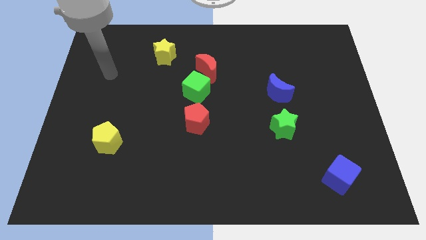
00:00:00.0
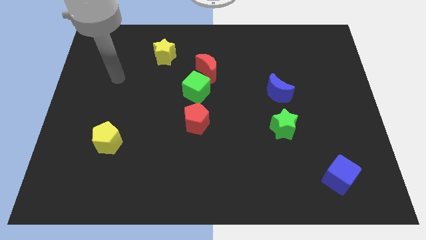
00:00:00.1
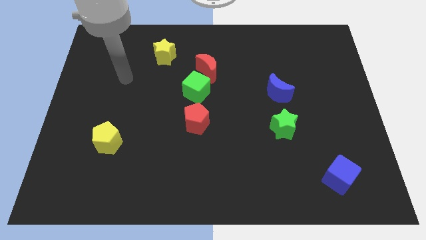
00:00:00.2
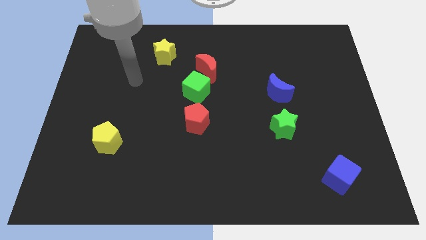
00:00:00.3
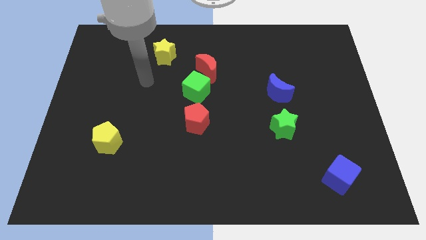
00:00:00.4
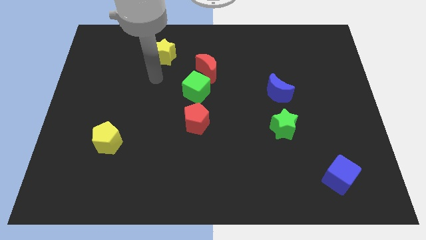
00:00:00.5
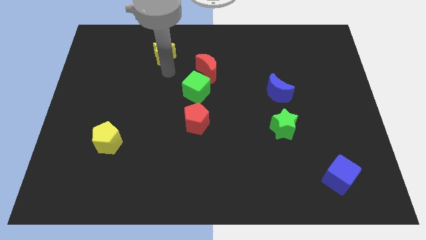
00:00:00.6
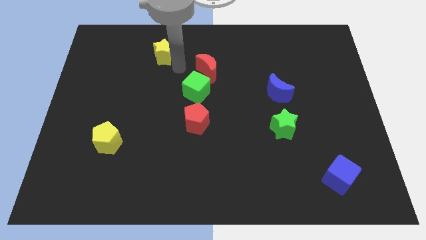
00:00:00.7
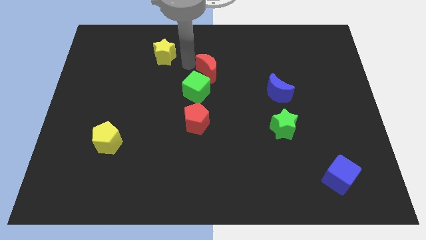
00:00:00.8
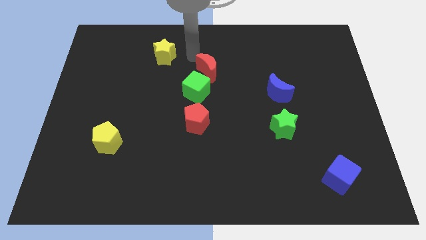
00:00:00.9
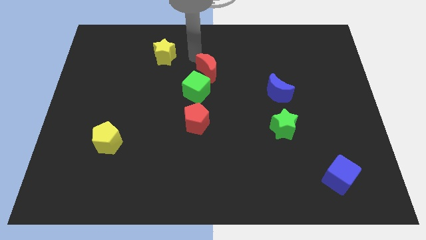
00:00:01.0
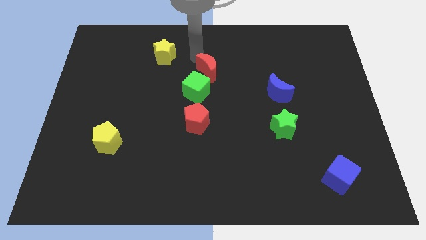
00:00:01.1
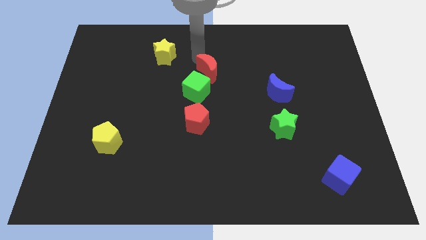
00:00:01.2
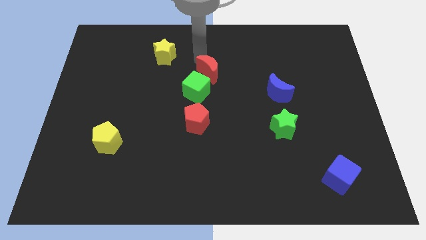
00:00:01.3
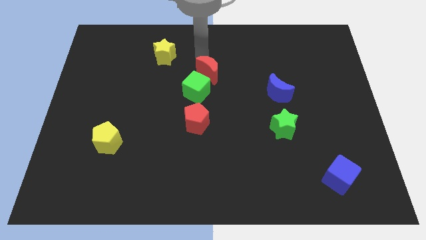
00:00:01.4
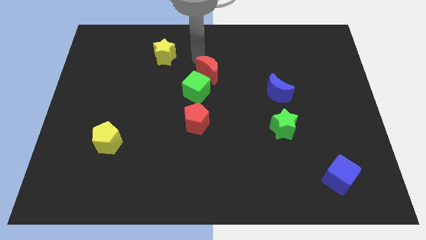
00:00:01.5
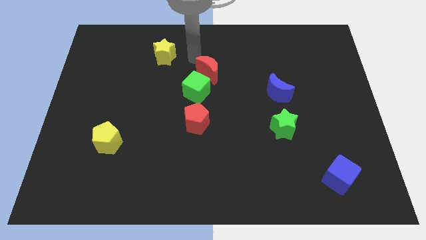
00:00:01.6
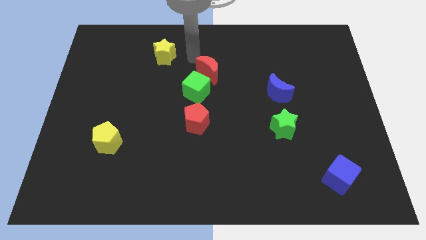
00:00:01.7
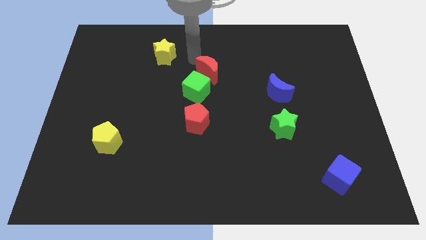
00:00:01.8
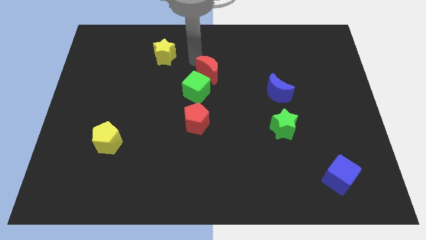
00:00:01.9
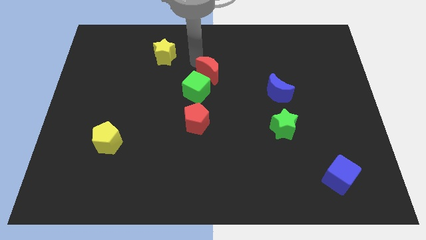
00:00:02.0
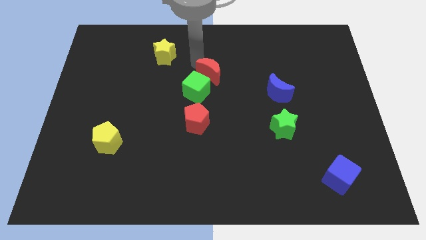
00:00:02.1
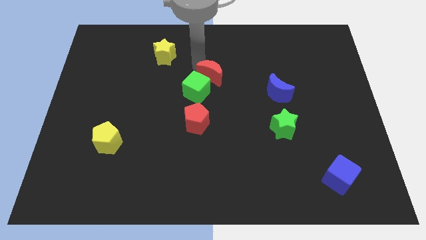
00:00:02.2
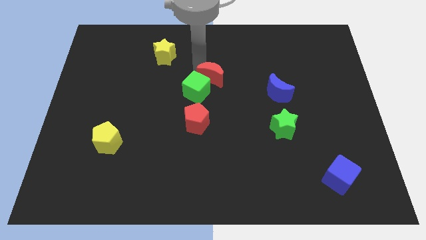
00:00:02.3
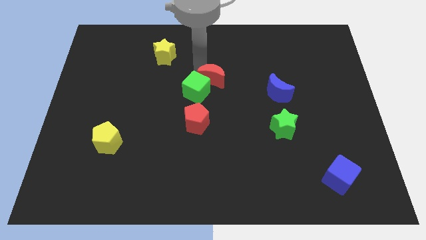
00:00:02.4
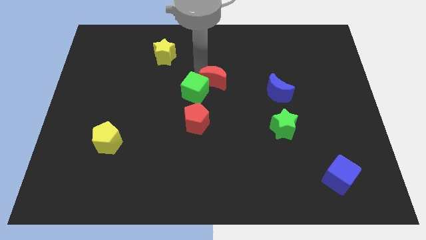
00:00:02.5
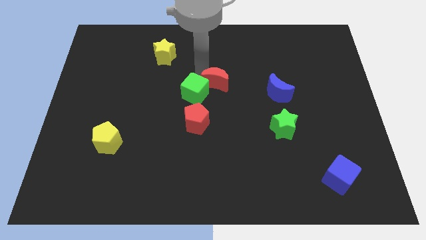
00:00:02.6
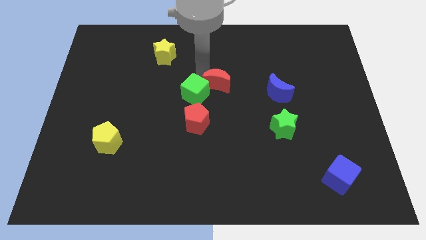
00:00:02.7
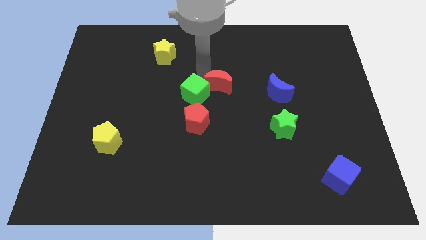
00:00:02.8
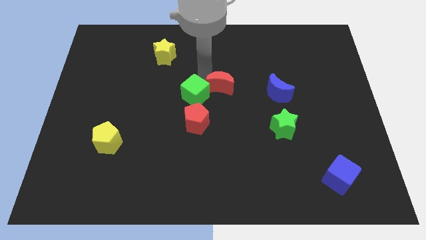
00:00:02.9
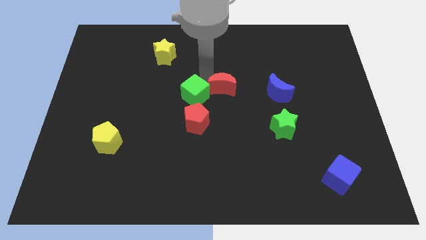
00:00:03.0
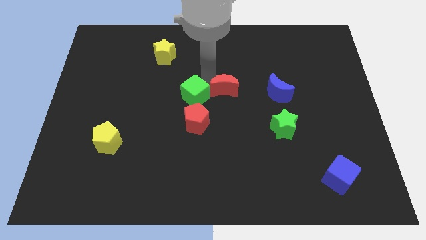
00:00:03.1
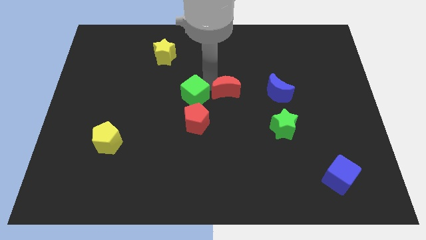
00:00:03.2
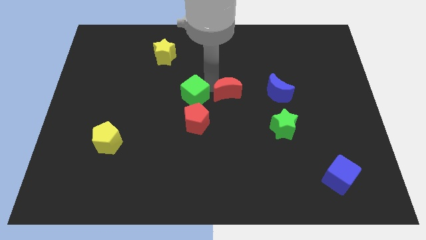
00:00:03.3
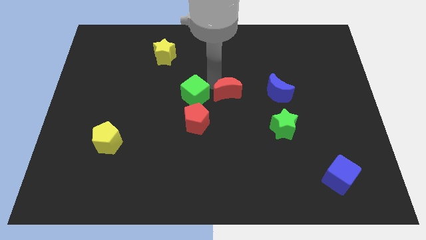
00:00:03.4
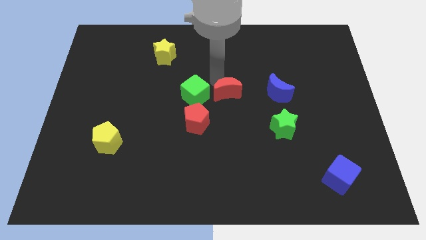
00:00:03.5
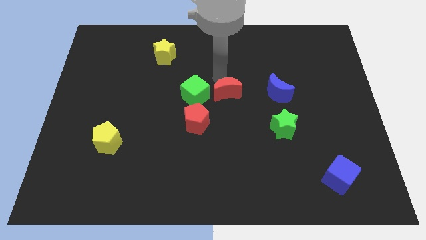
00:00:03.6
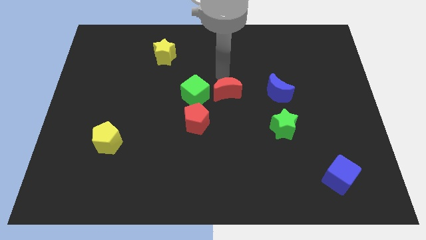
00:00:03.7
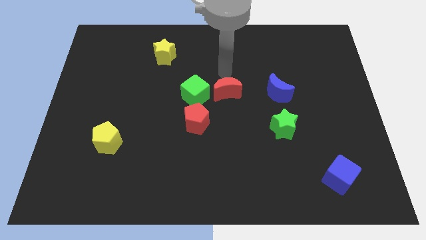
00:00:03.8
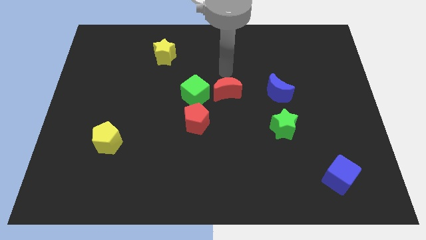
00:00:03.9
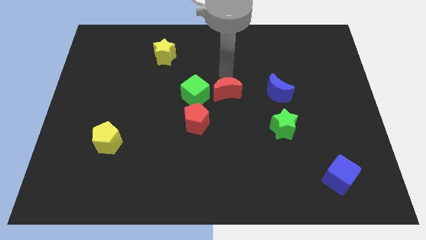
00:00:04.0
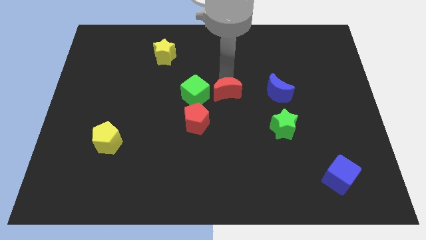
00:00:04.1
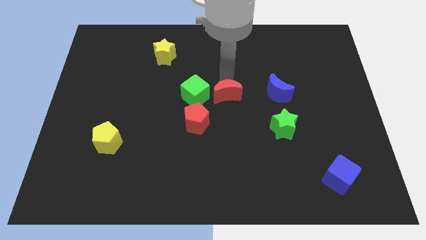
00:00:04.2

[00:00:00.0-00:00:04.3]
slide the red moon a bit down

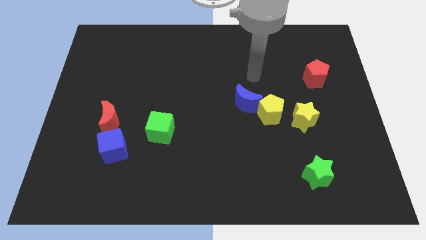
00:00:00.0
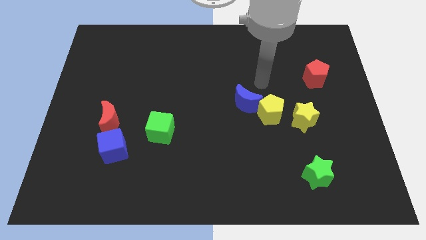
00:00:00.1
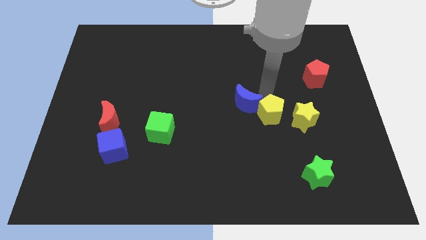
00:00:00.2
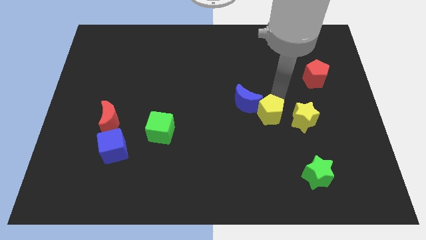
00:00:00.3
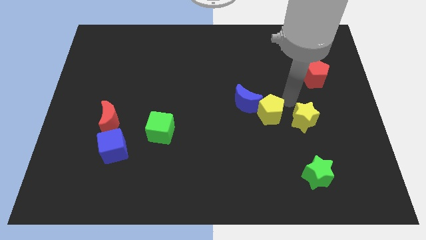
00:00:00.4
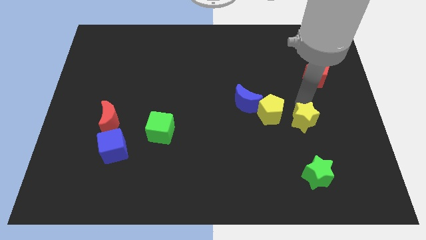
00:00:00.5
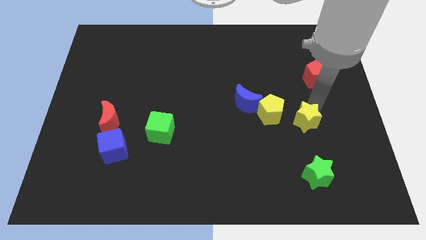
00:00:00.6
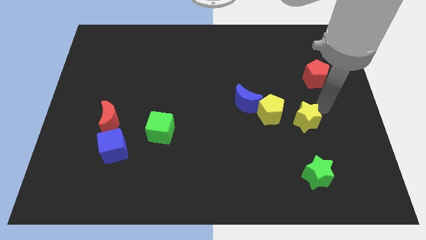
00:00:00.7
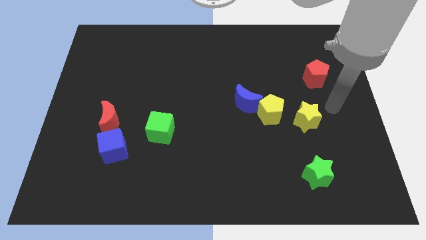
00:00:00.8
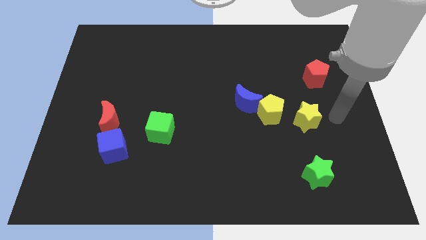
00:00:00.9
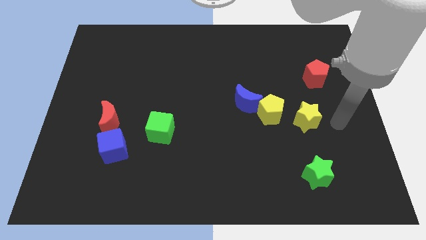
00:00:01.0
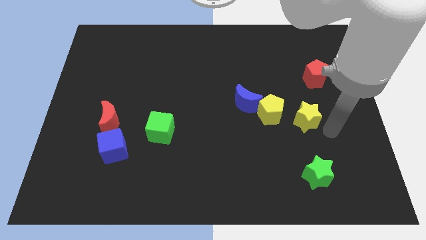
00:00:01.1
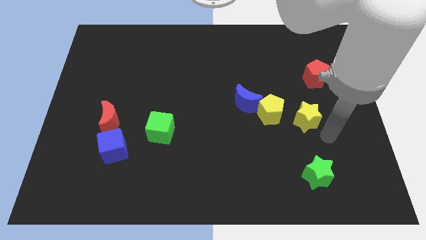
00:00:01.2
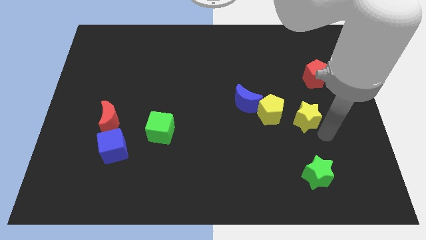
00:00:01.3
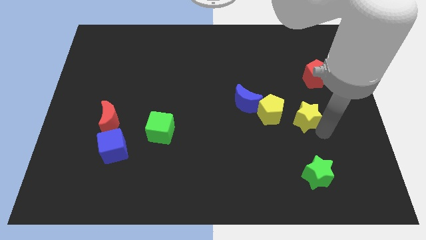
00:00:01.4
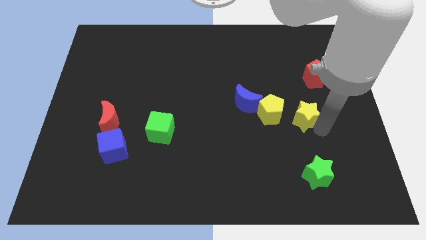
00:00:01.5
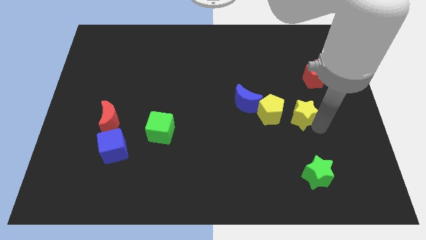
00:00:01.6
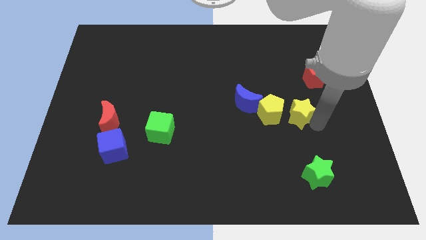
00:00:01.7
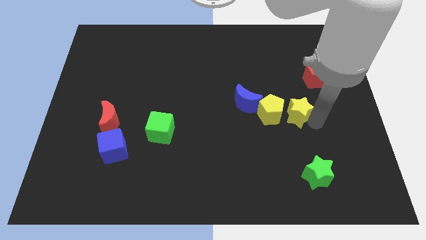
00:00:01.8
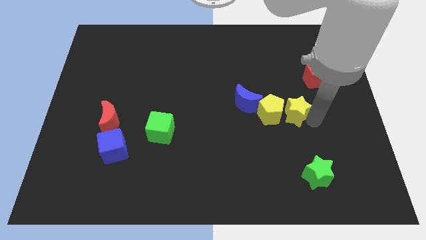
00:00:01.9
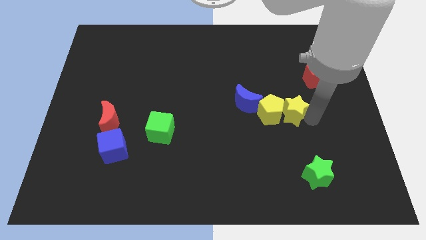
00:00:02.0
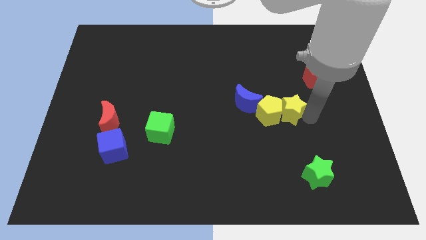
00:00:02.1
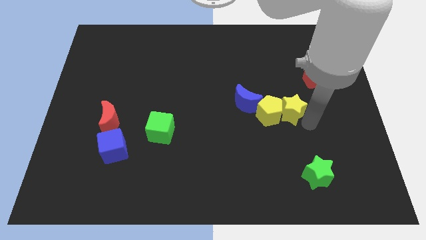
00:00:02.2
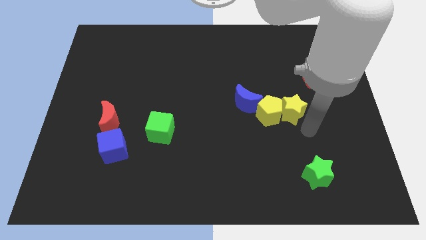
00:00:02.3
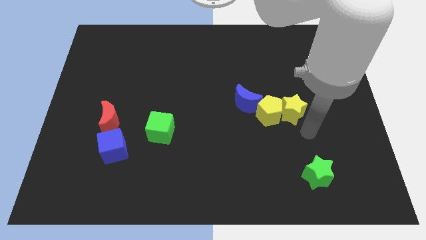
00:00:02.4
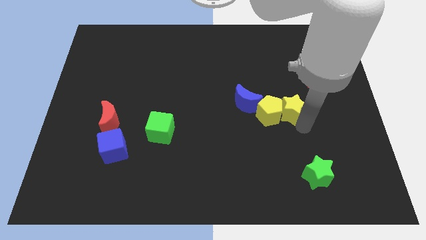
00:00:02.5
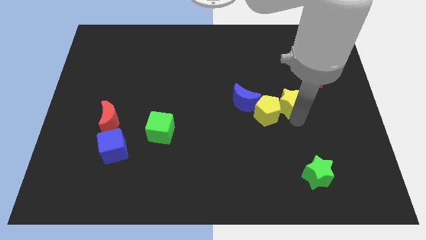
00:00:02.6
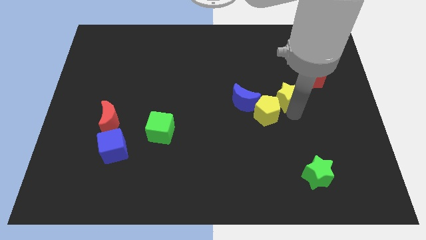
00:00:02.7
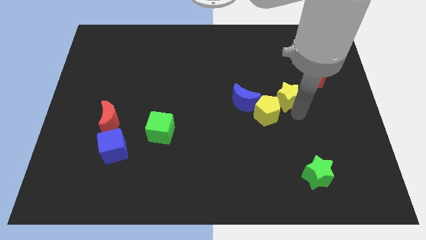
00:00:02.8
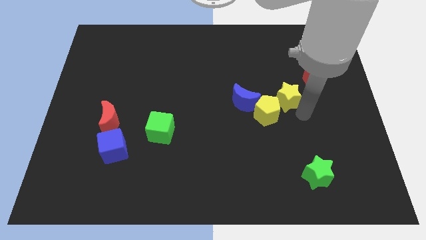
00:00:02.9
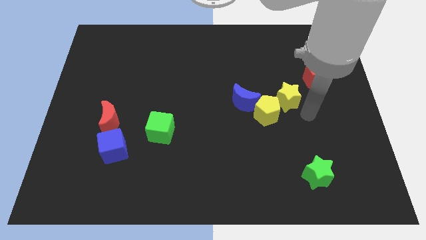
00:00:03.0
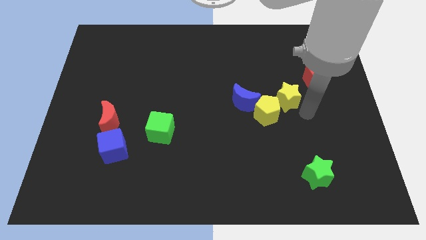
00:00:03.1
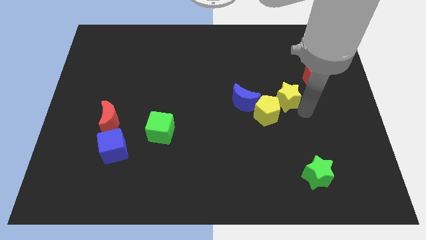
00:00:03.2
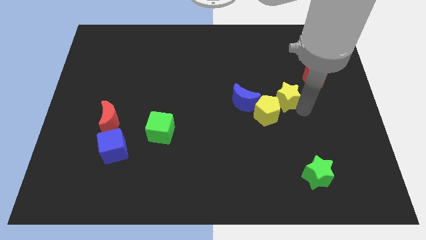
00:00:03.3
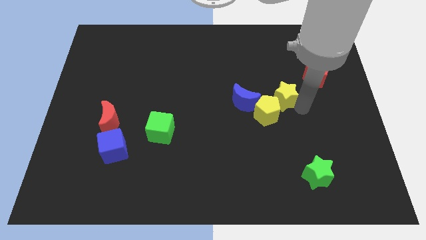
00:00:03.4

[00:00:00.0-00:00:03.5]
slightly slide the yellow star diagonally up and to the left
